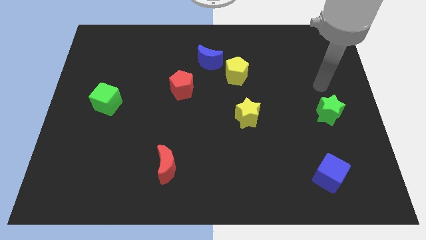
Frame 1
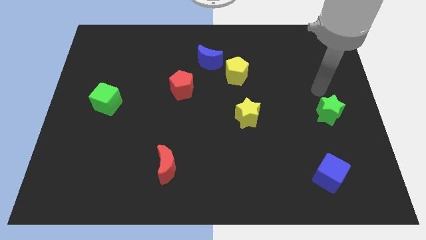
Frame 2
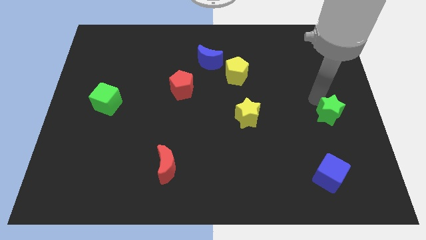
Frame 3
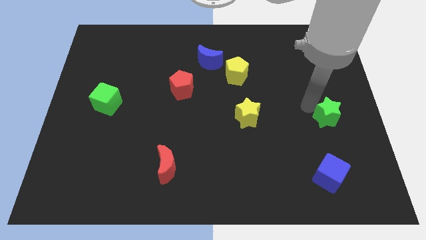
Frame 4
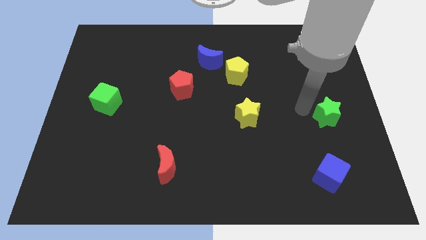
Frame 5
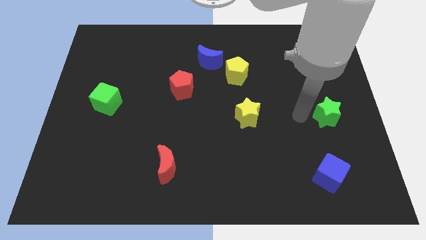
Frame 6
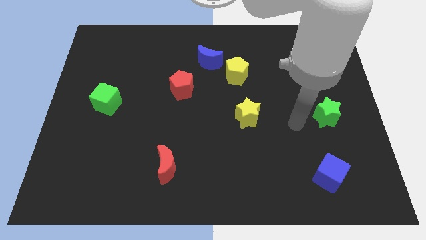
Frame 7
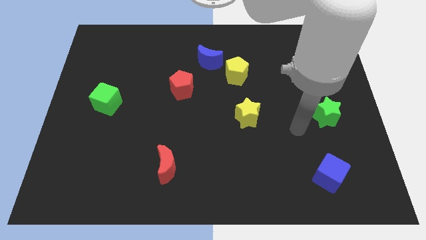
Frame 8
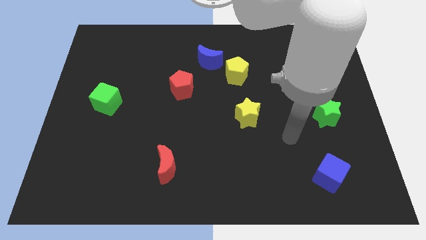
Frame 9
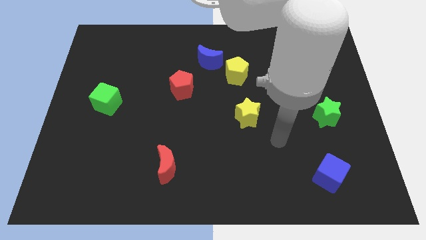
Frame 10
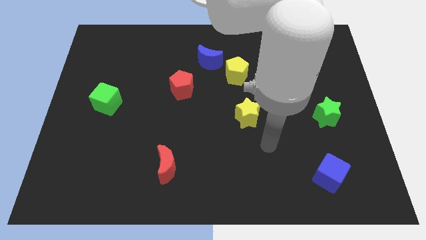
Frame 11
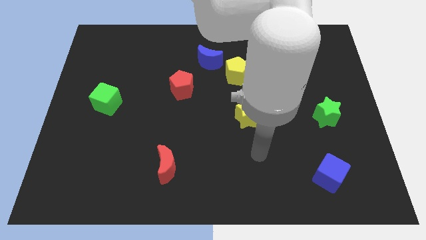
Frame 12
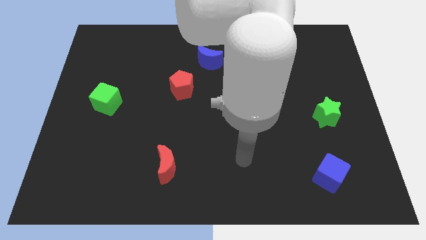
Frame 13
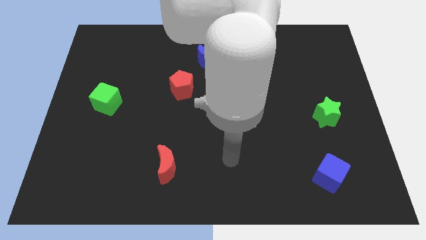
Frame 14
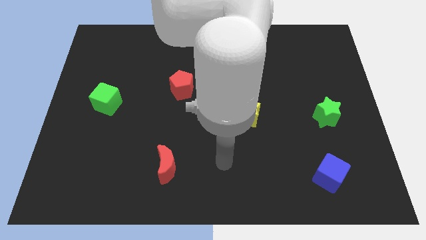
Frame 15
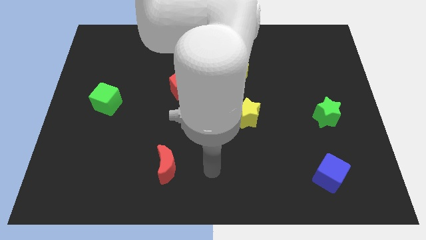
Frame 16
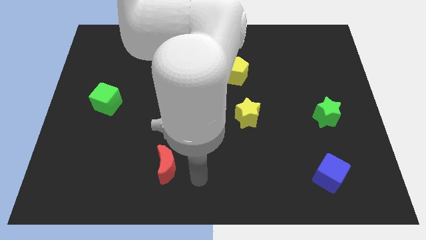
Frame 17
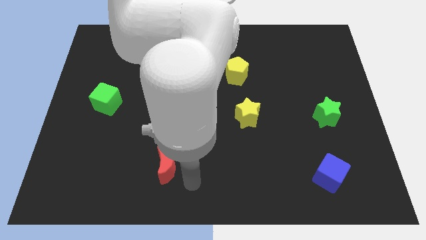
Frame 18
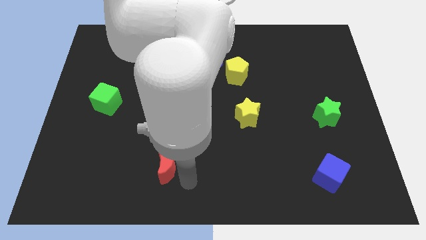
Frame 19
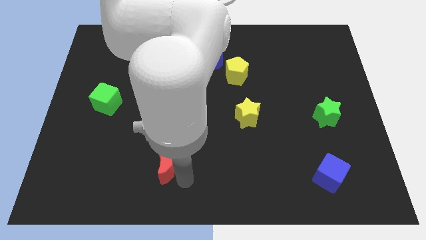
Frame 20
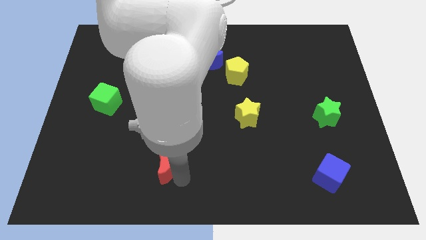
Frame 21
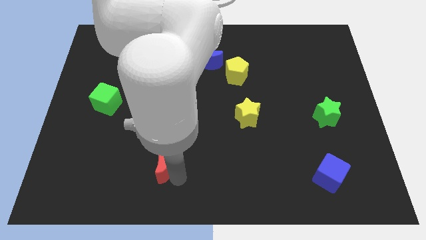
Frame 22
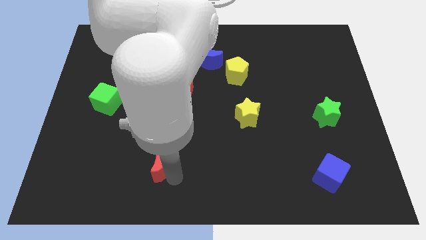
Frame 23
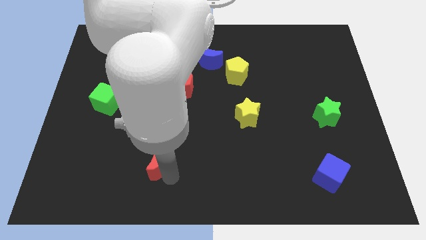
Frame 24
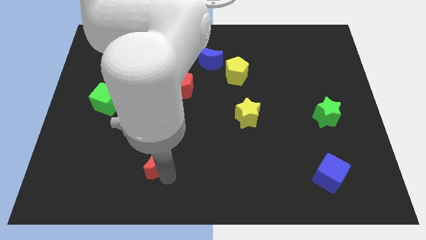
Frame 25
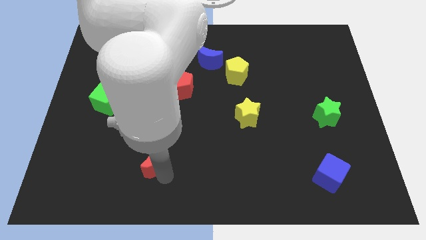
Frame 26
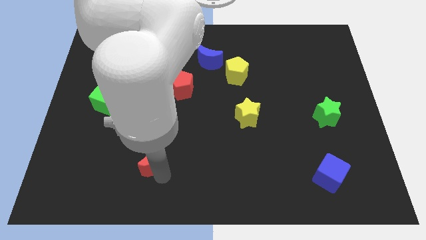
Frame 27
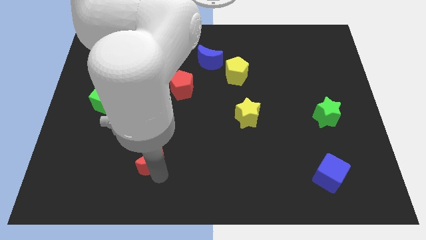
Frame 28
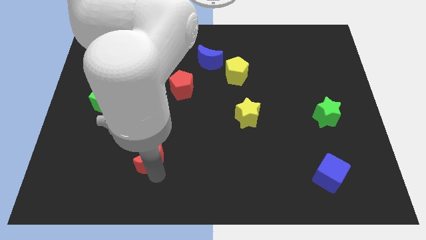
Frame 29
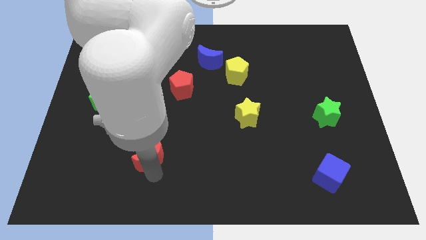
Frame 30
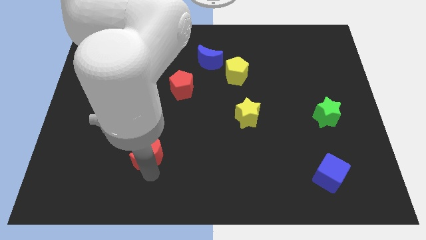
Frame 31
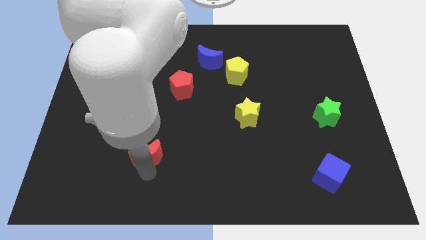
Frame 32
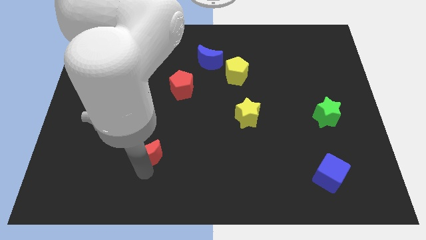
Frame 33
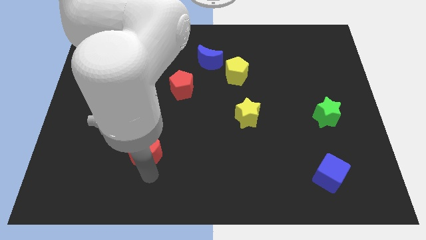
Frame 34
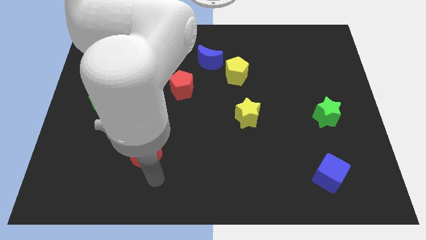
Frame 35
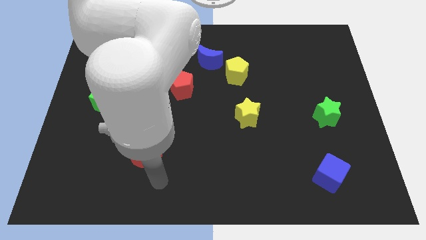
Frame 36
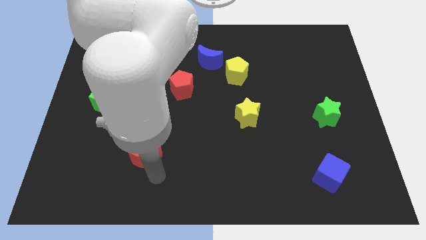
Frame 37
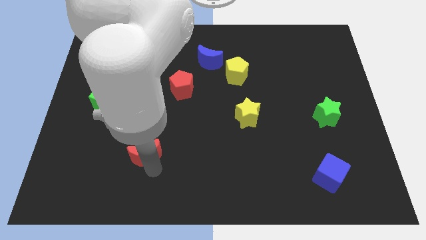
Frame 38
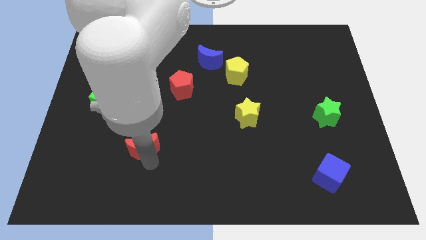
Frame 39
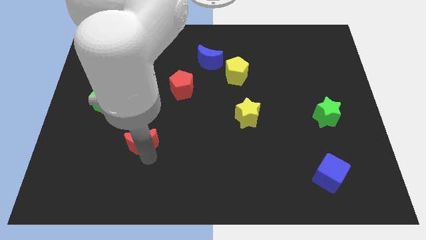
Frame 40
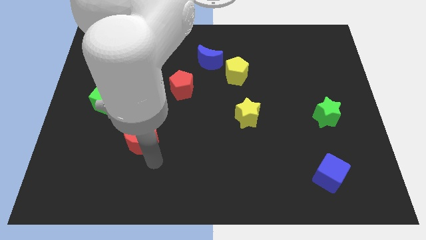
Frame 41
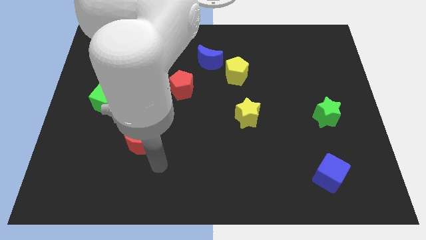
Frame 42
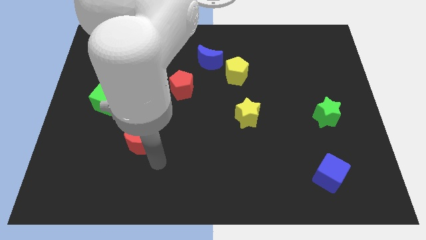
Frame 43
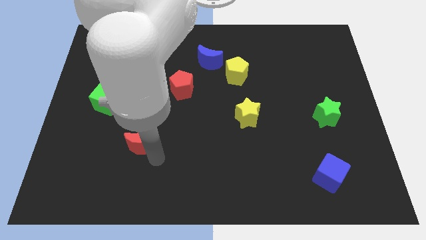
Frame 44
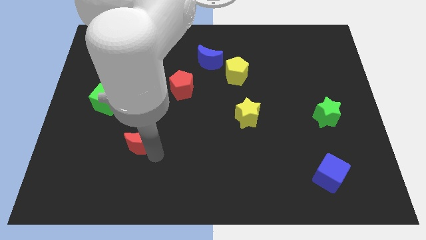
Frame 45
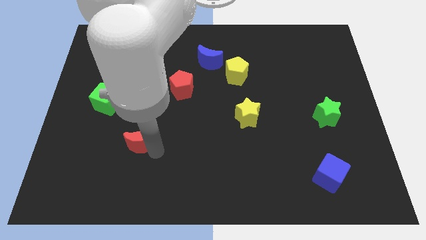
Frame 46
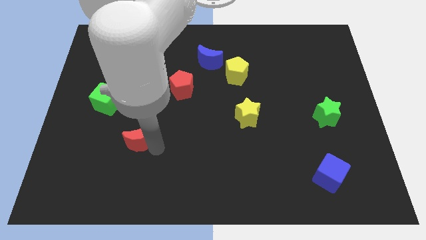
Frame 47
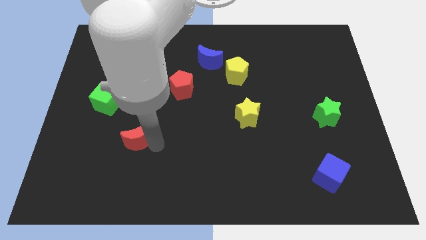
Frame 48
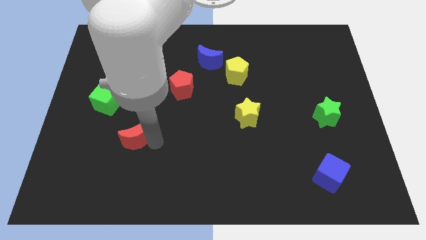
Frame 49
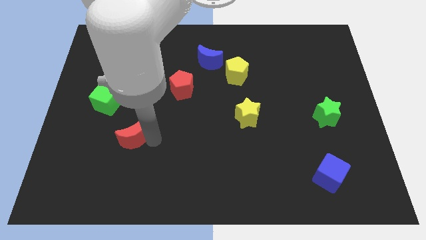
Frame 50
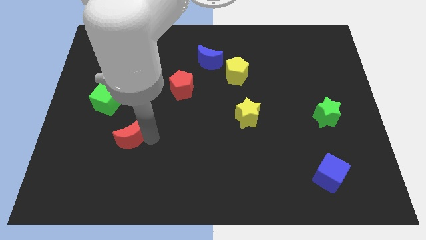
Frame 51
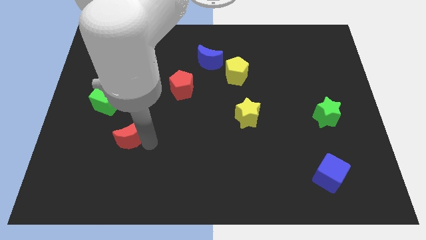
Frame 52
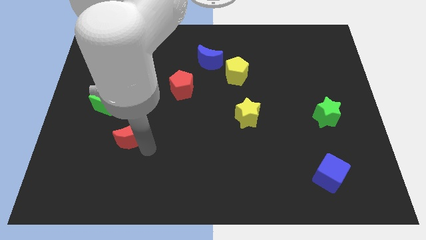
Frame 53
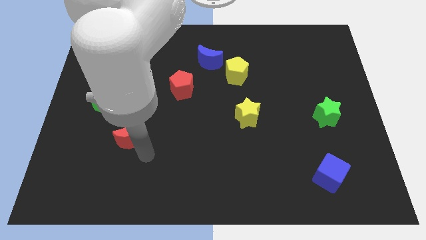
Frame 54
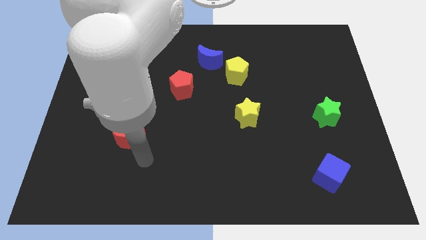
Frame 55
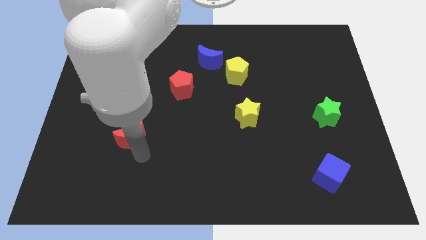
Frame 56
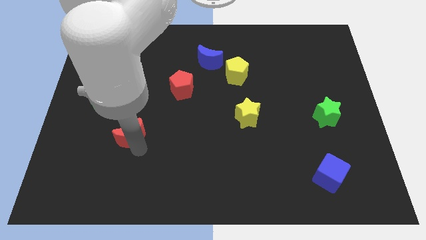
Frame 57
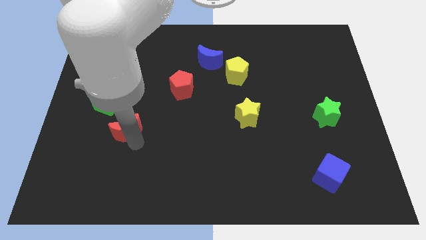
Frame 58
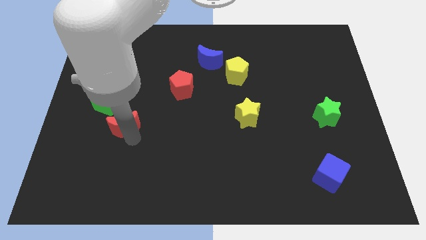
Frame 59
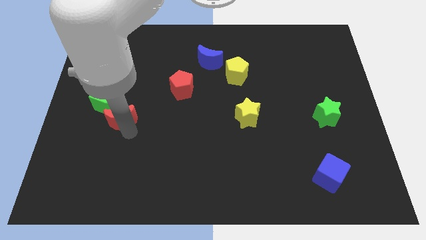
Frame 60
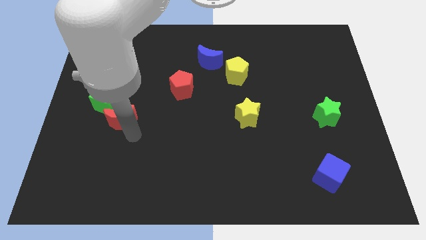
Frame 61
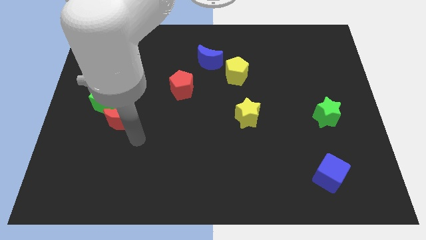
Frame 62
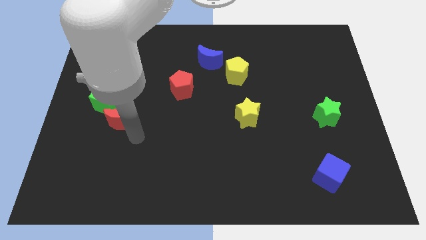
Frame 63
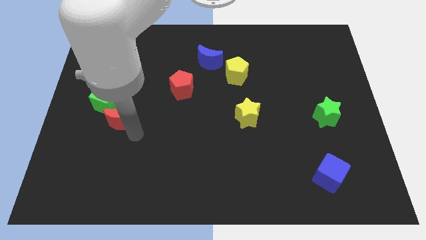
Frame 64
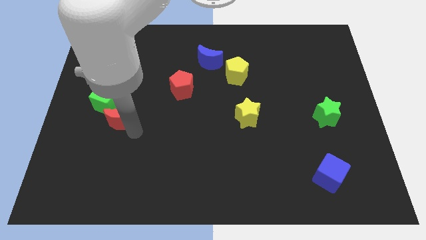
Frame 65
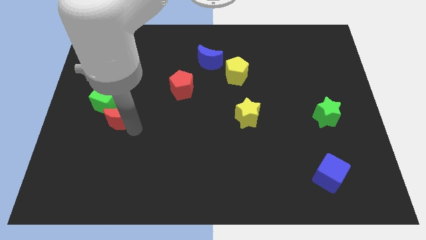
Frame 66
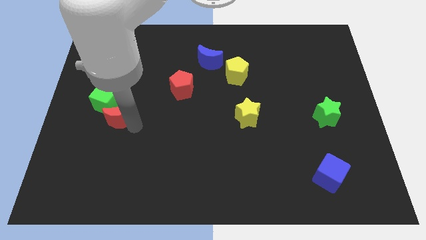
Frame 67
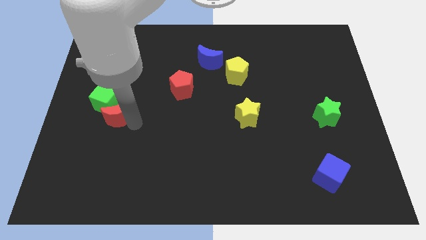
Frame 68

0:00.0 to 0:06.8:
move the red moon next to the green cube
